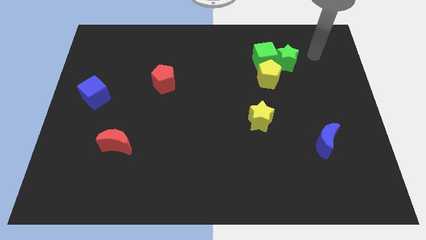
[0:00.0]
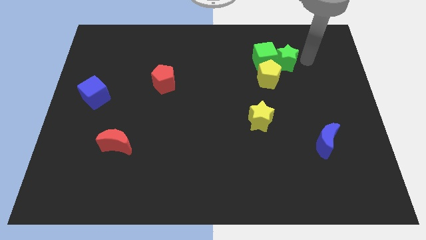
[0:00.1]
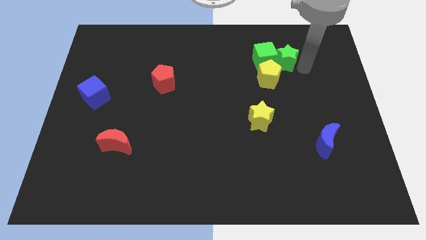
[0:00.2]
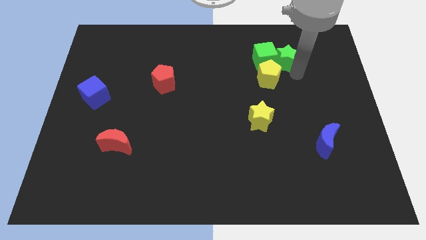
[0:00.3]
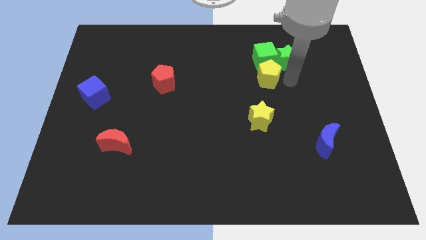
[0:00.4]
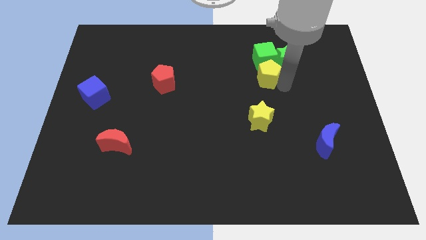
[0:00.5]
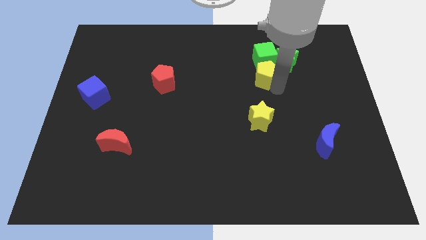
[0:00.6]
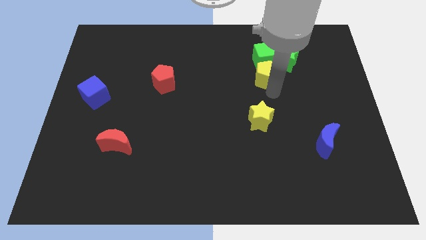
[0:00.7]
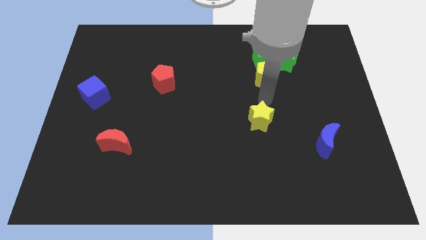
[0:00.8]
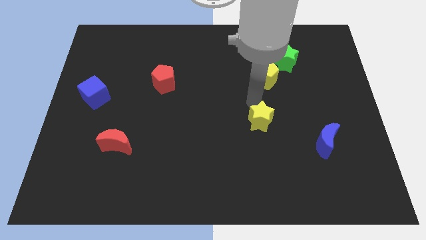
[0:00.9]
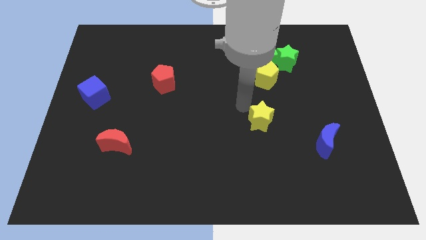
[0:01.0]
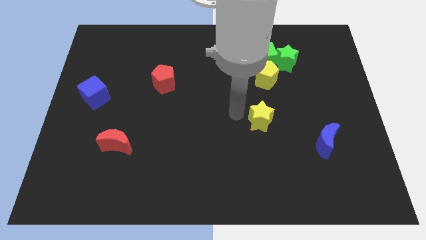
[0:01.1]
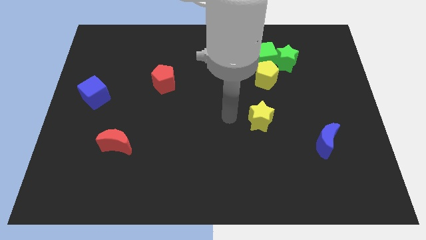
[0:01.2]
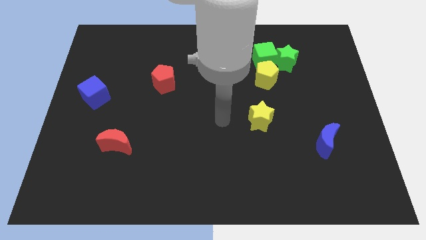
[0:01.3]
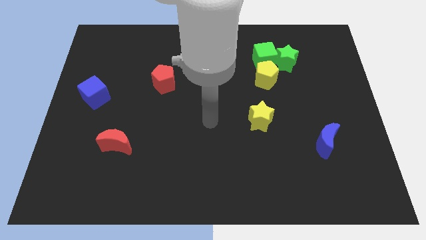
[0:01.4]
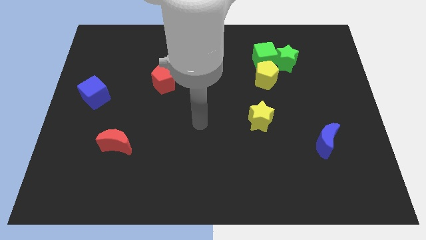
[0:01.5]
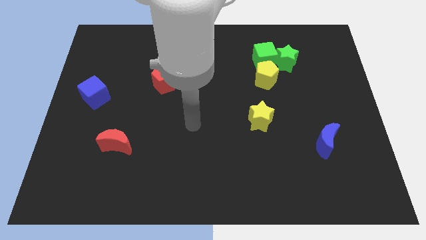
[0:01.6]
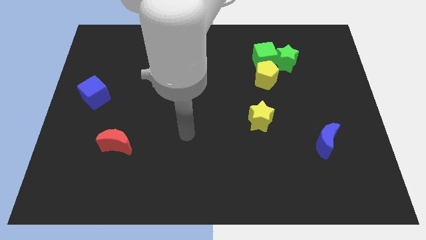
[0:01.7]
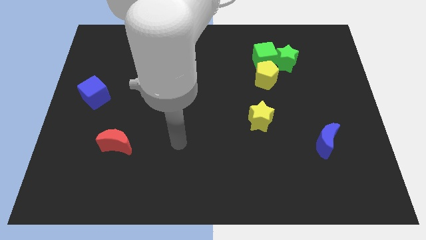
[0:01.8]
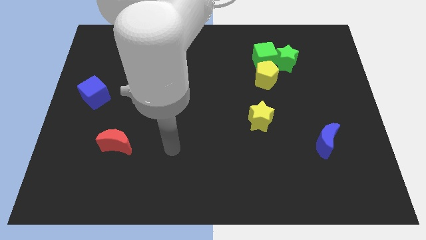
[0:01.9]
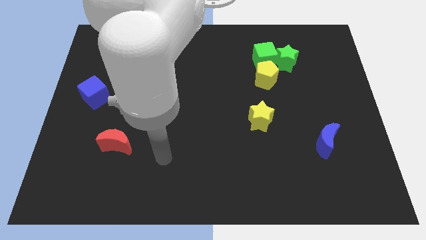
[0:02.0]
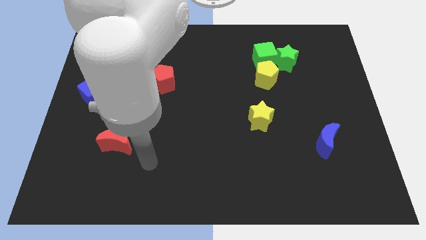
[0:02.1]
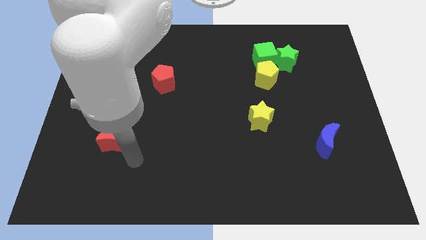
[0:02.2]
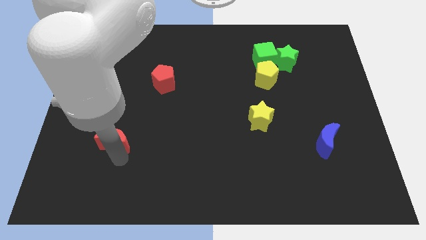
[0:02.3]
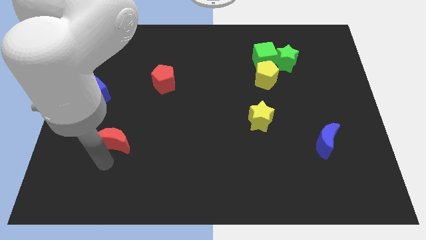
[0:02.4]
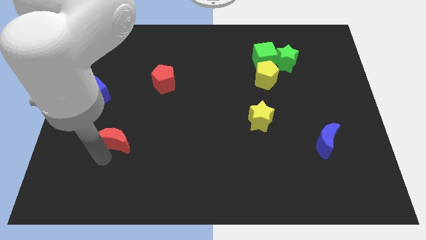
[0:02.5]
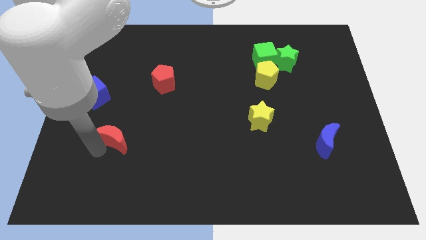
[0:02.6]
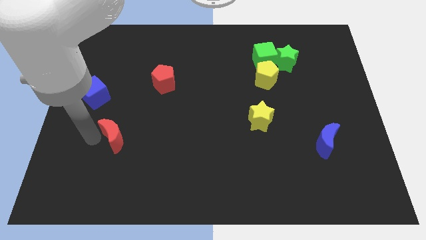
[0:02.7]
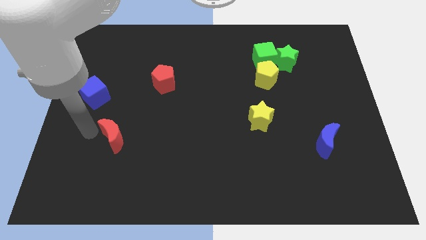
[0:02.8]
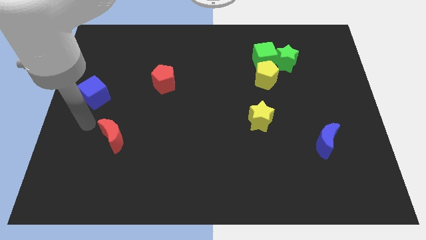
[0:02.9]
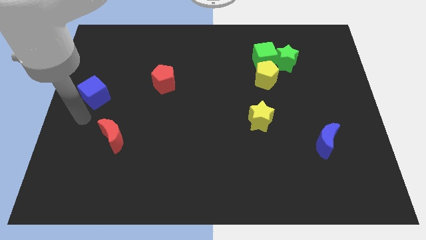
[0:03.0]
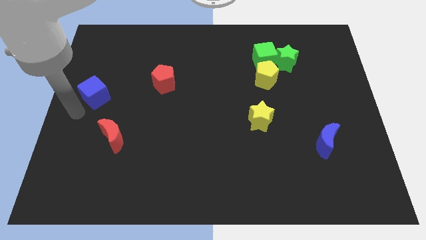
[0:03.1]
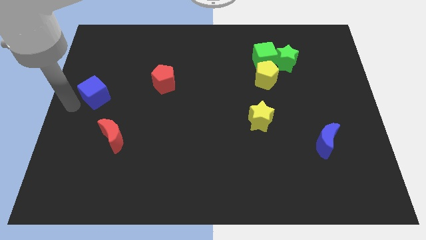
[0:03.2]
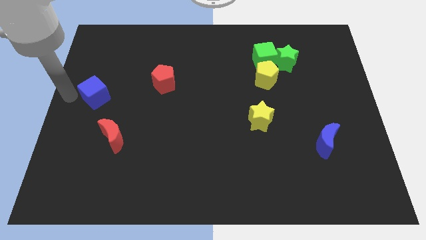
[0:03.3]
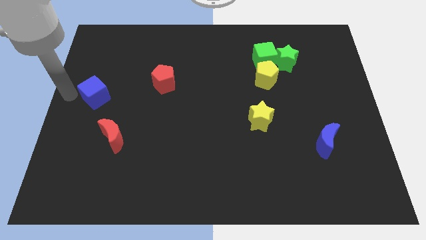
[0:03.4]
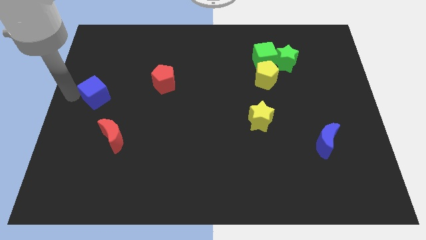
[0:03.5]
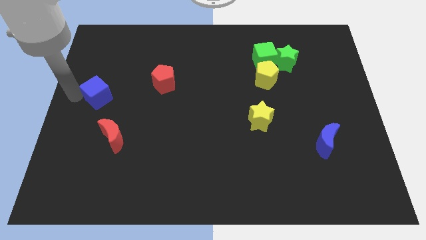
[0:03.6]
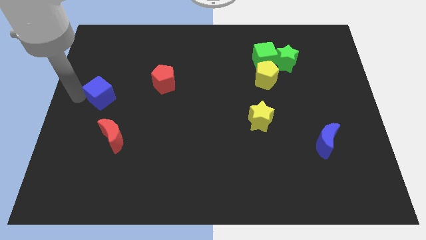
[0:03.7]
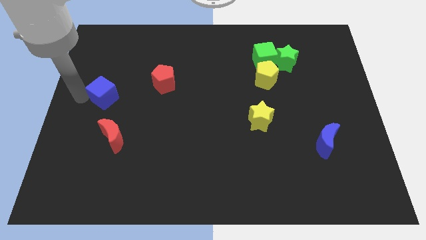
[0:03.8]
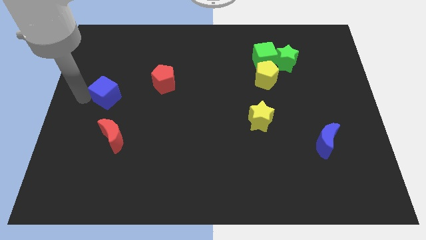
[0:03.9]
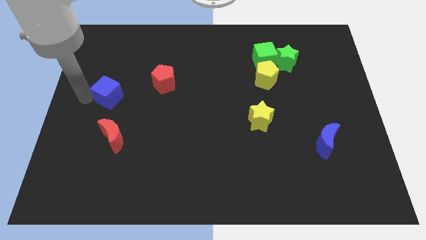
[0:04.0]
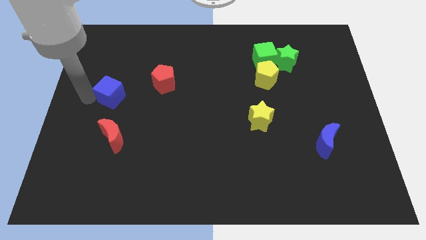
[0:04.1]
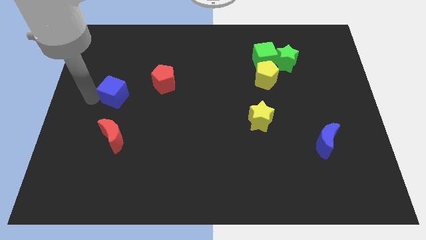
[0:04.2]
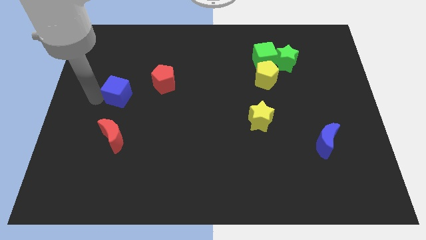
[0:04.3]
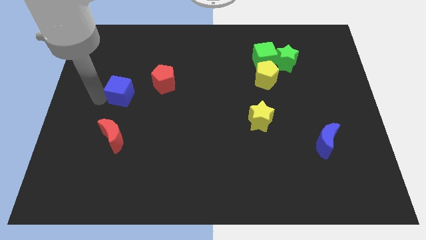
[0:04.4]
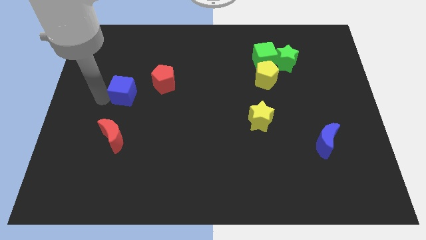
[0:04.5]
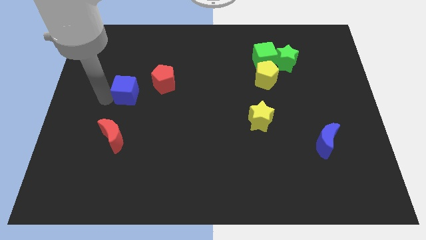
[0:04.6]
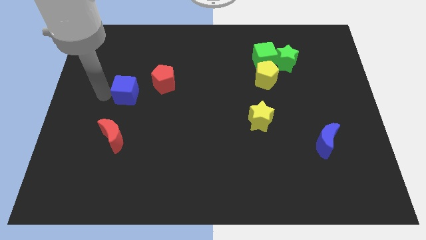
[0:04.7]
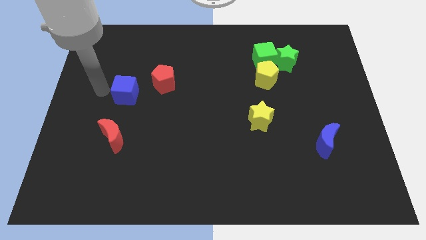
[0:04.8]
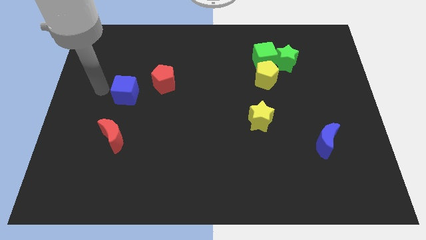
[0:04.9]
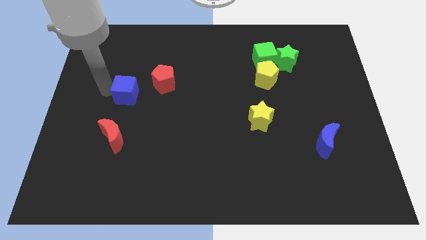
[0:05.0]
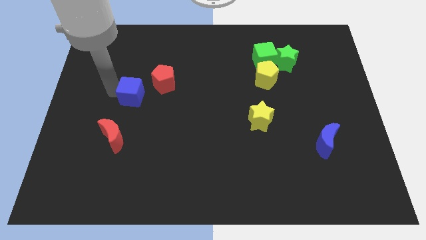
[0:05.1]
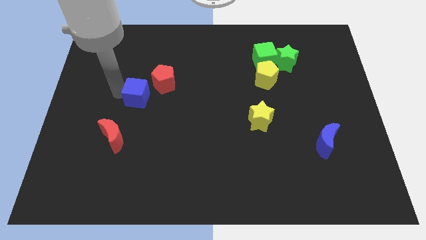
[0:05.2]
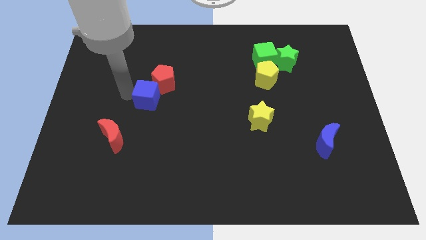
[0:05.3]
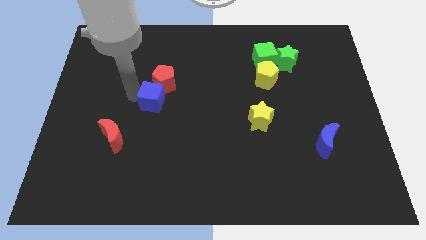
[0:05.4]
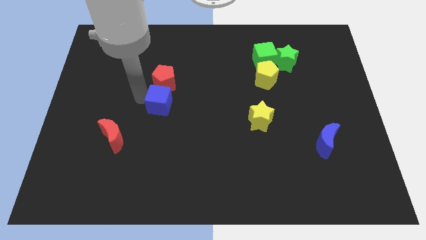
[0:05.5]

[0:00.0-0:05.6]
put the blue cube to the middle
